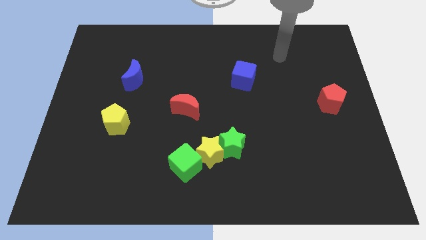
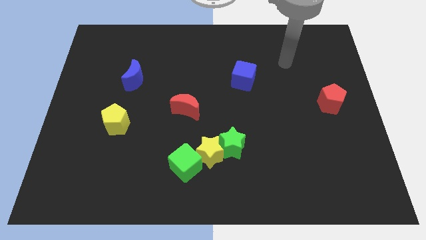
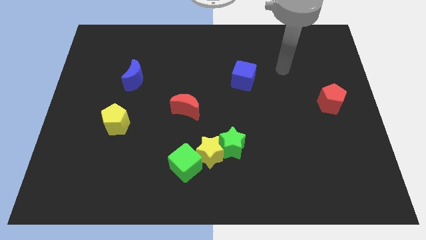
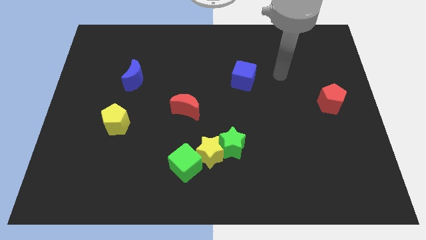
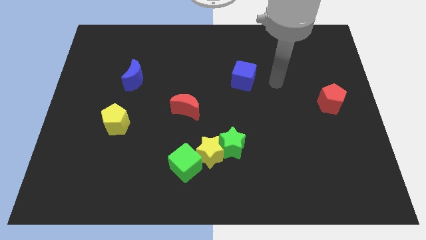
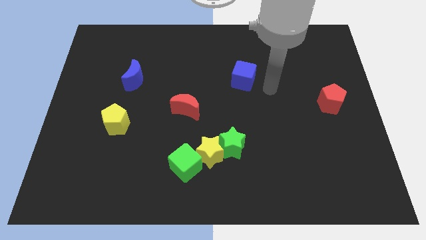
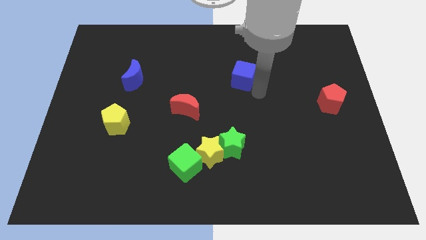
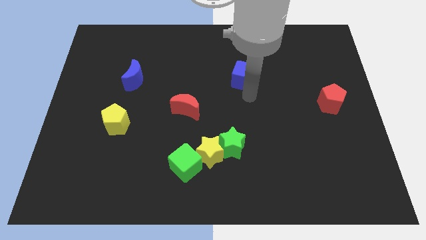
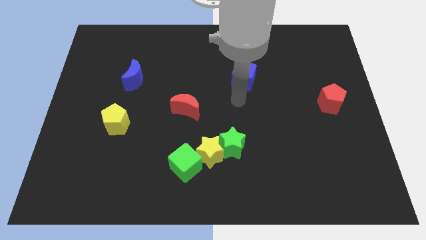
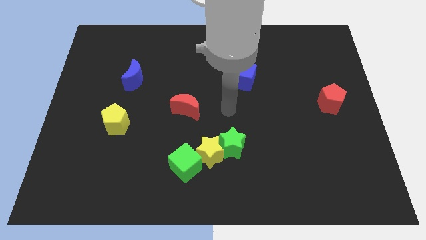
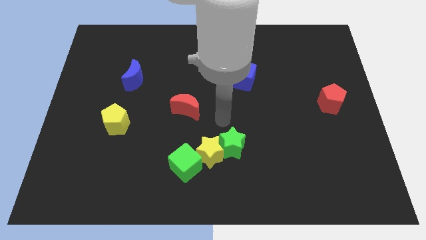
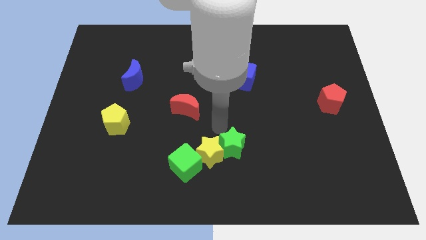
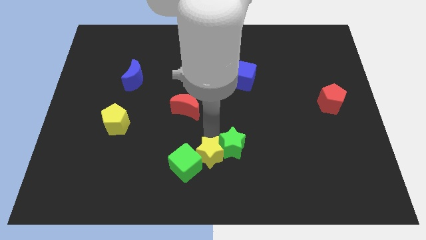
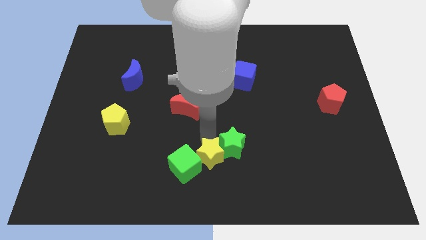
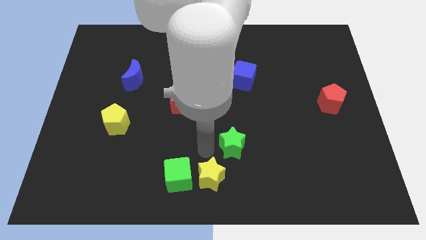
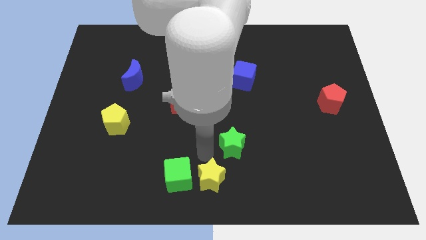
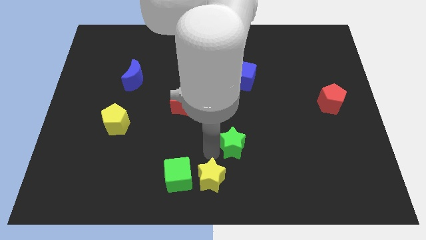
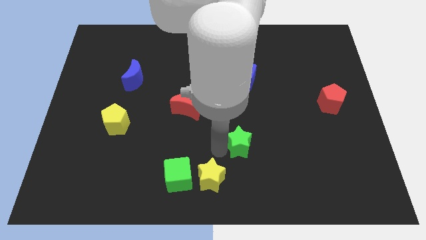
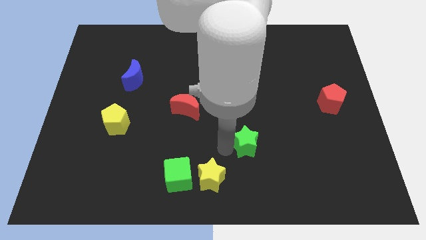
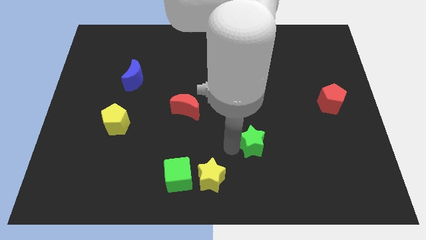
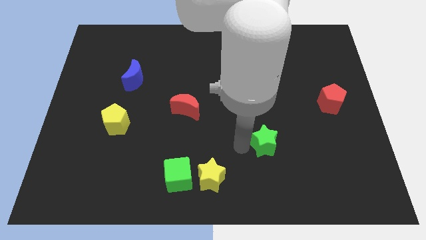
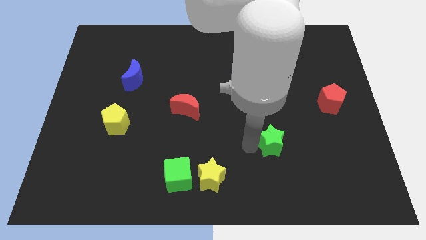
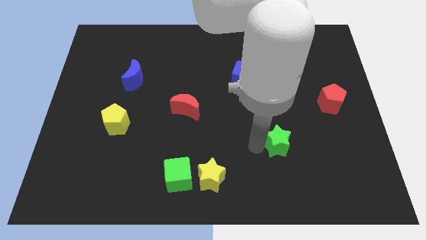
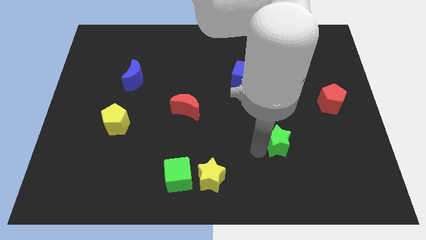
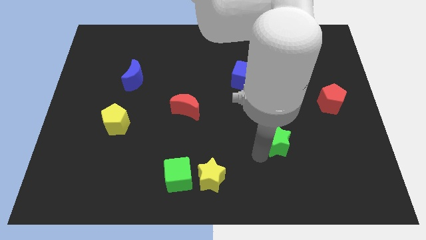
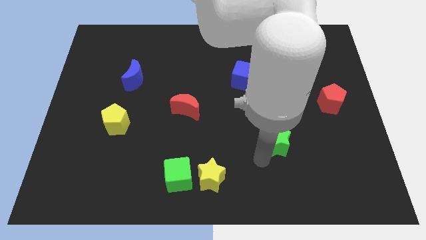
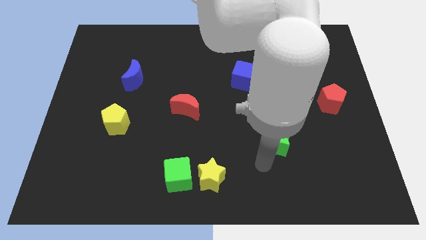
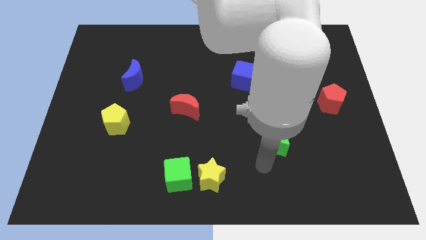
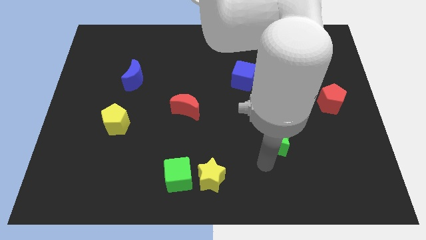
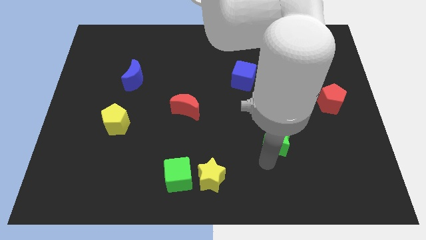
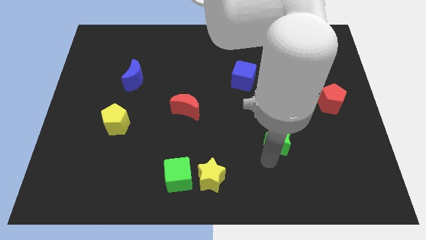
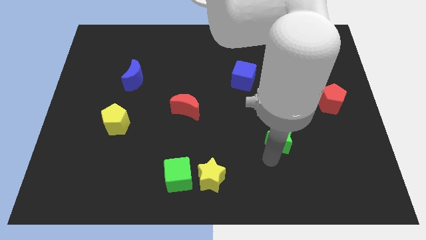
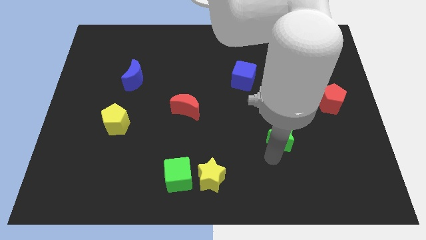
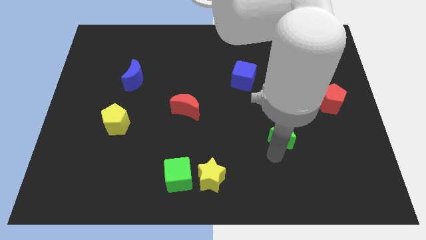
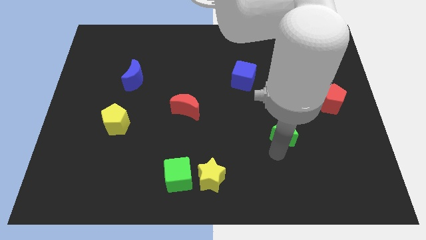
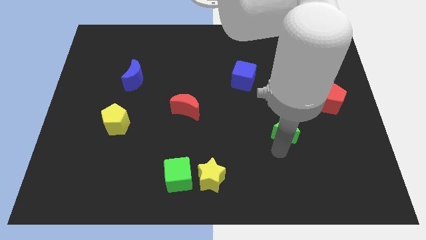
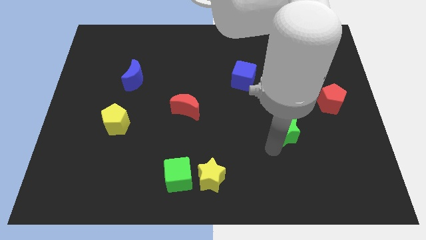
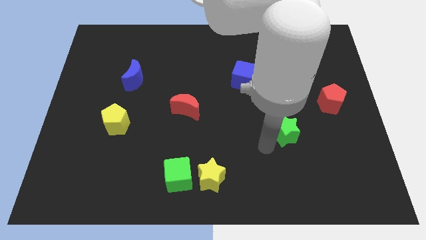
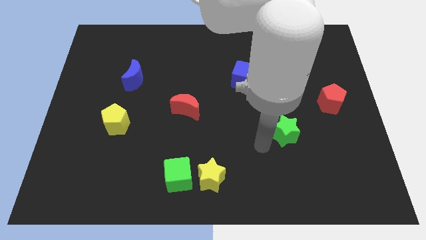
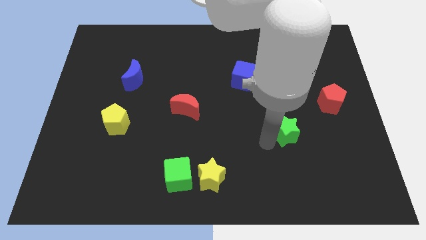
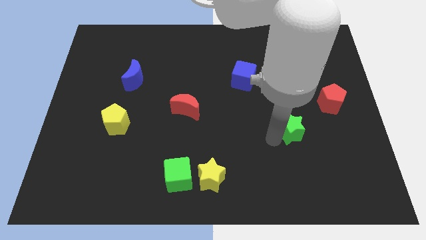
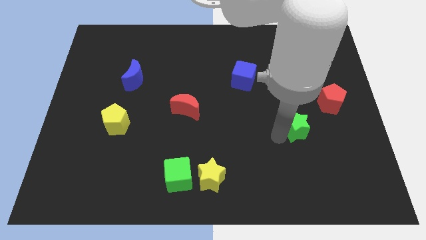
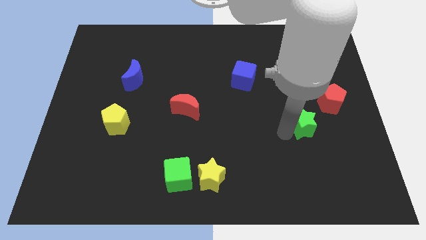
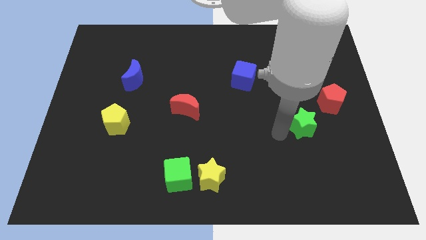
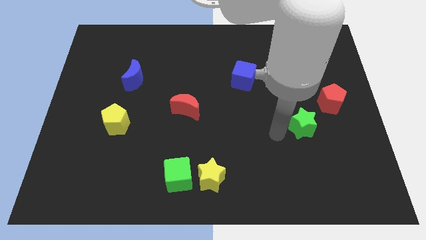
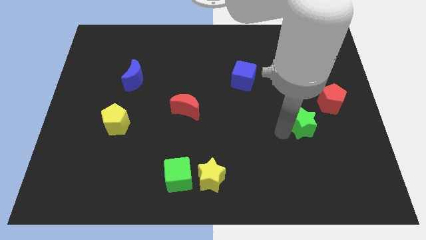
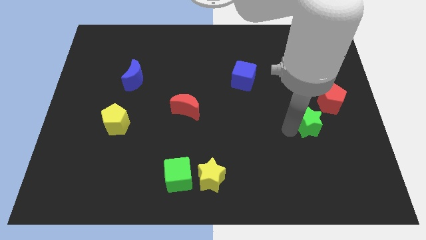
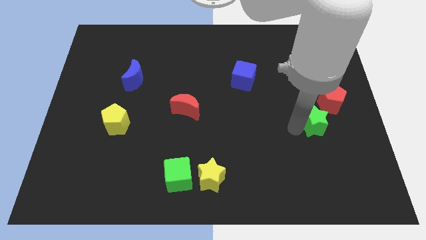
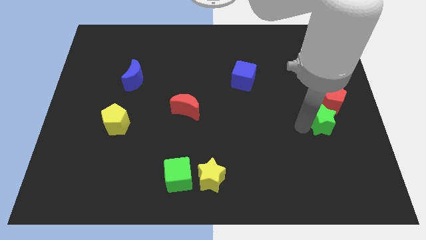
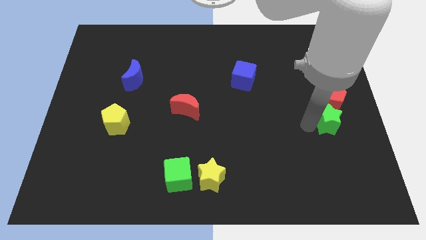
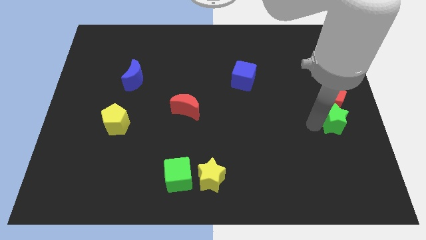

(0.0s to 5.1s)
move the green star to the right side

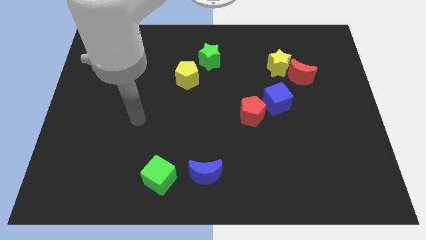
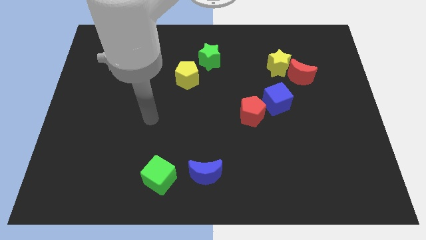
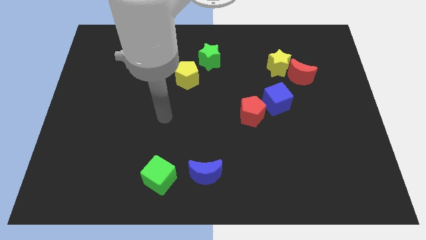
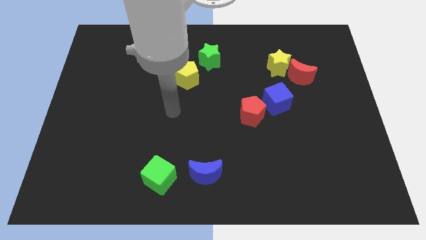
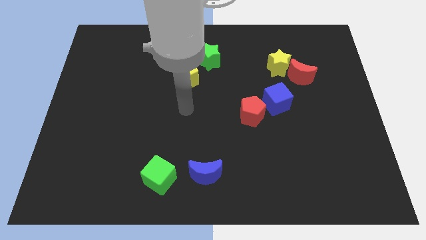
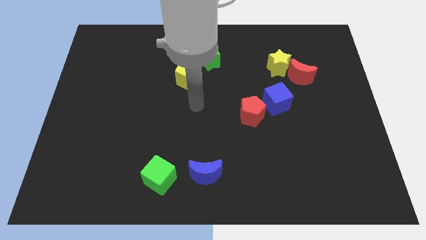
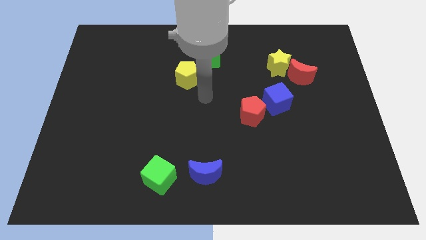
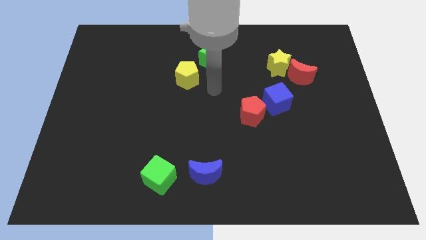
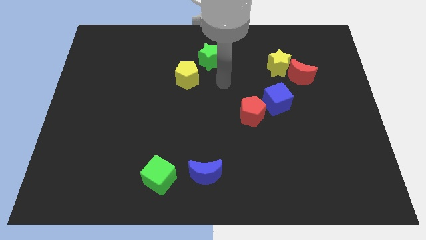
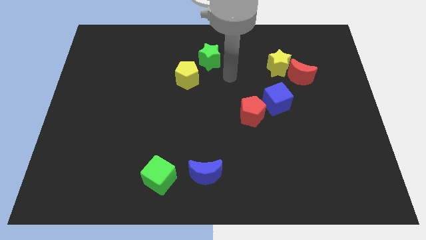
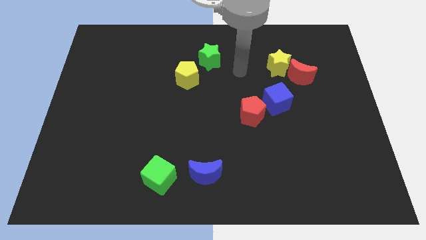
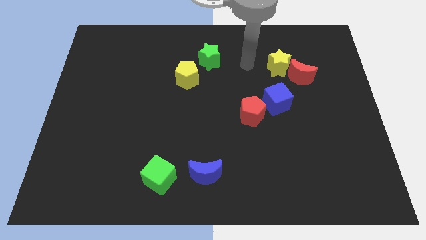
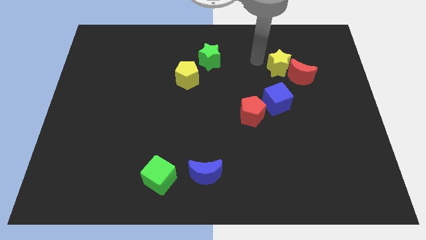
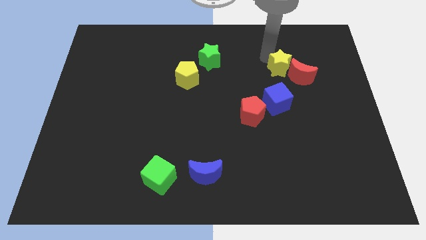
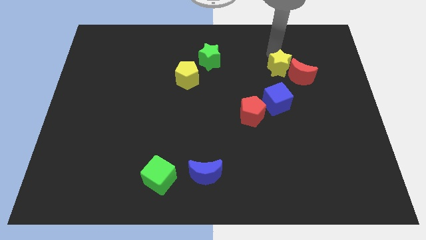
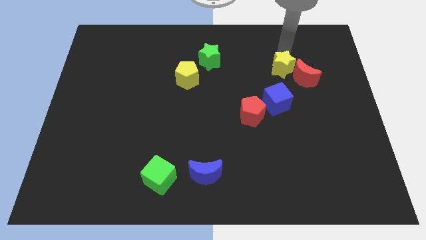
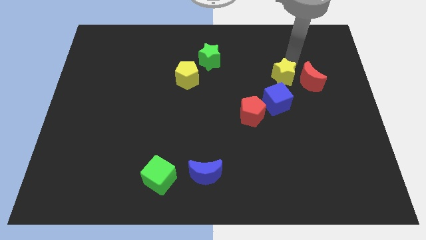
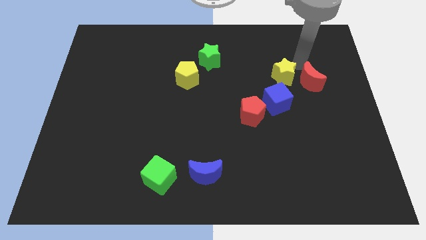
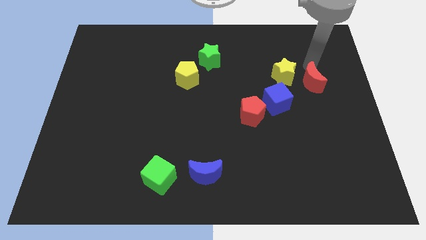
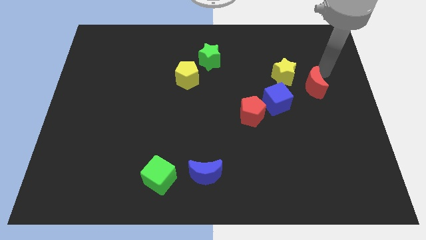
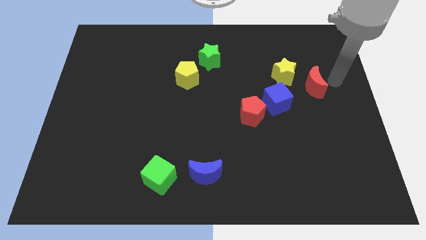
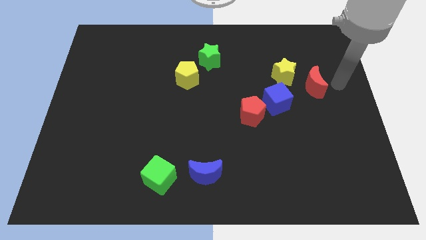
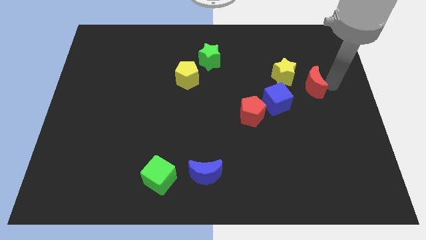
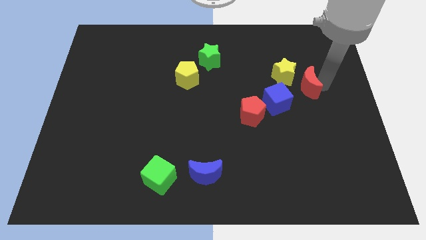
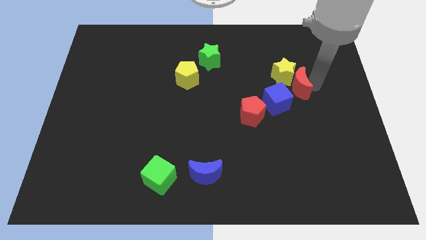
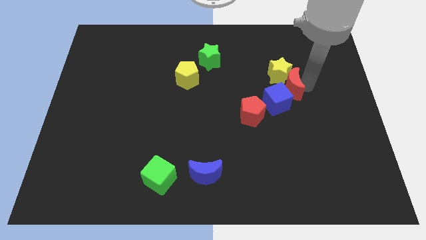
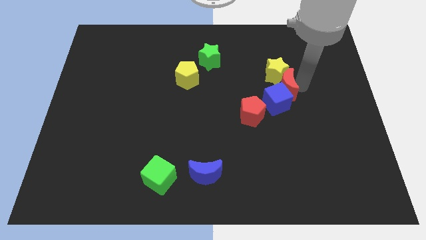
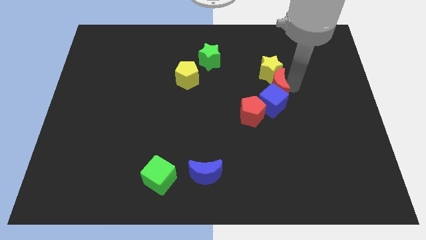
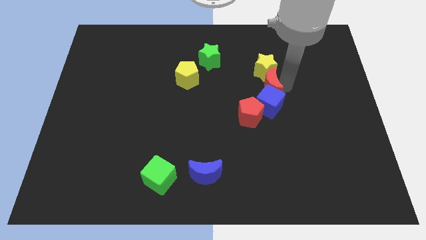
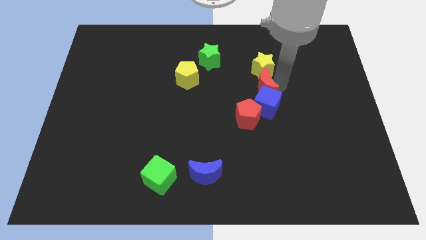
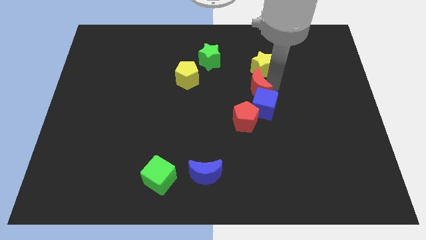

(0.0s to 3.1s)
slide the red moon to the middle
